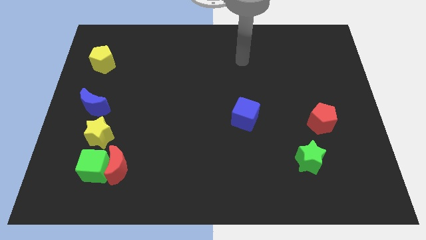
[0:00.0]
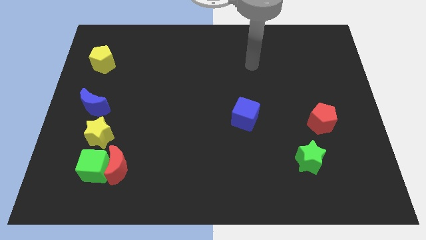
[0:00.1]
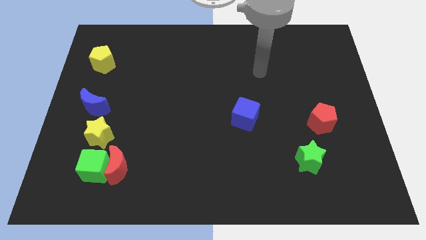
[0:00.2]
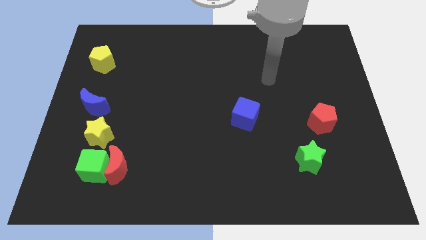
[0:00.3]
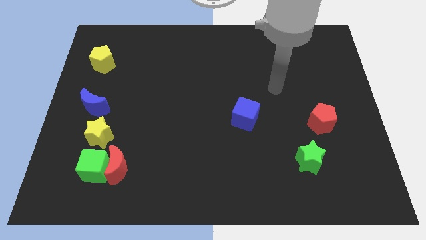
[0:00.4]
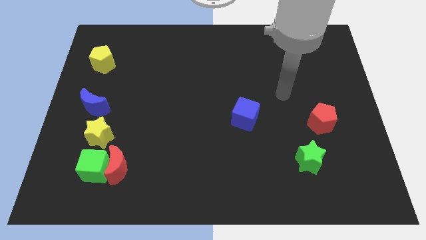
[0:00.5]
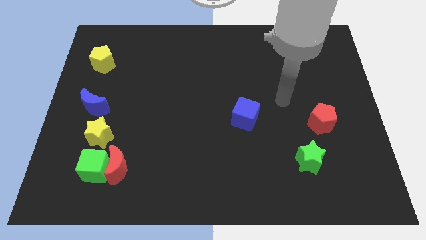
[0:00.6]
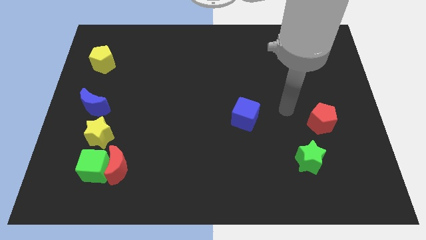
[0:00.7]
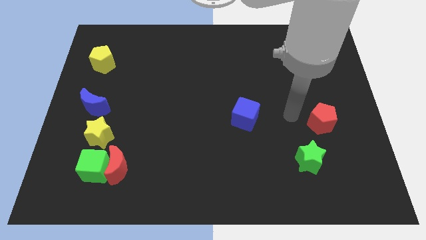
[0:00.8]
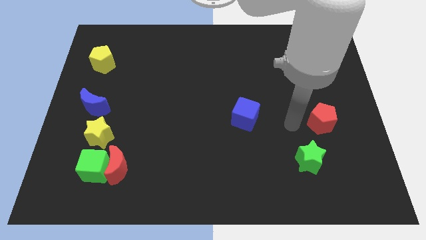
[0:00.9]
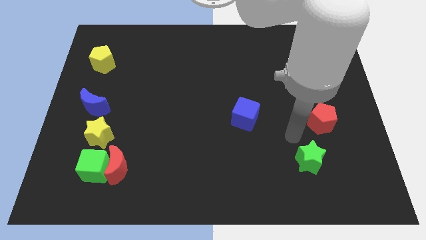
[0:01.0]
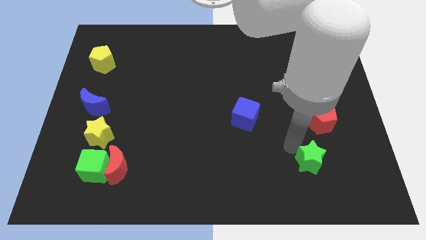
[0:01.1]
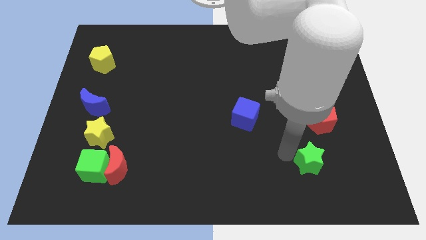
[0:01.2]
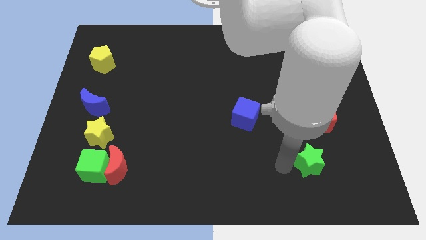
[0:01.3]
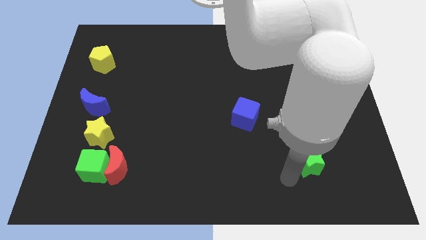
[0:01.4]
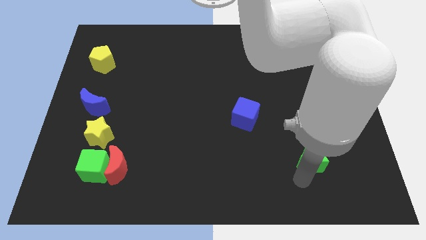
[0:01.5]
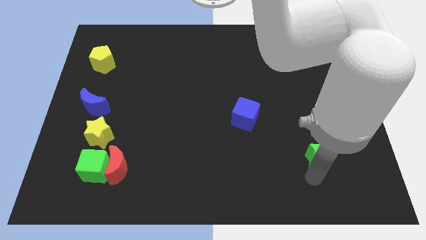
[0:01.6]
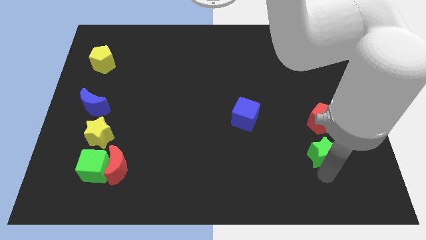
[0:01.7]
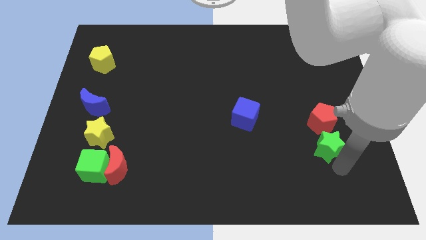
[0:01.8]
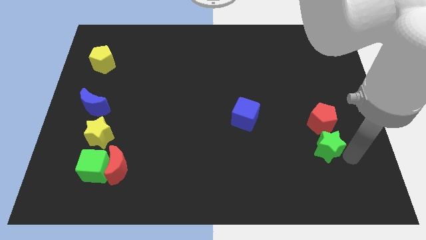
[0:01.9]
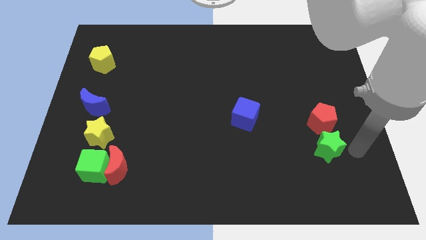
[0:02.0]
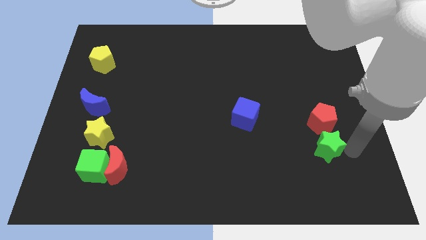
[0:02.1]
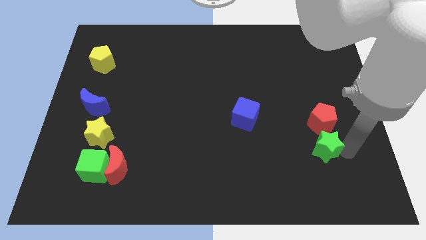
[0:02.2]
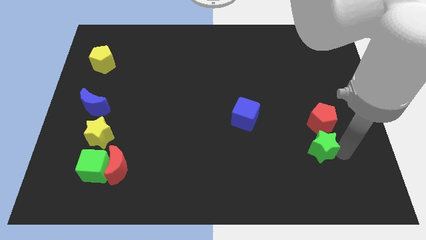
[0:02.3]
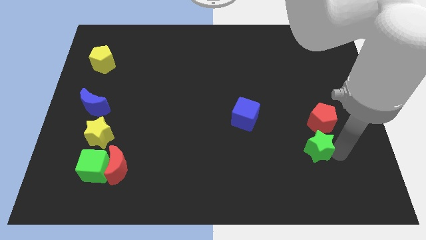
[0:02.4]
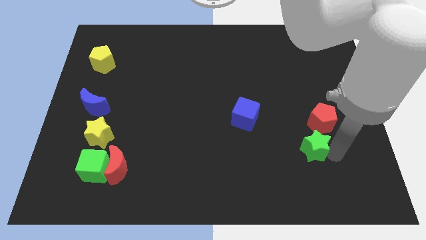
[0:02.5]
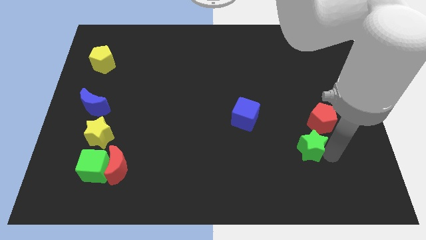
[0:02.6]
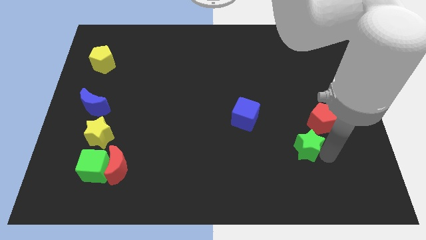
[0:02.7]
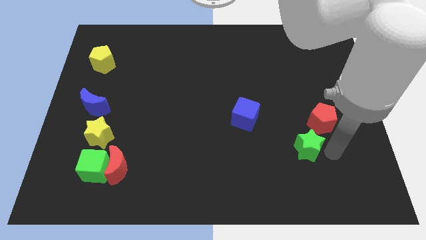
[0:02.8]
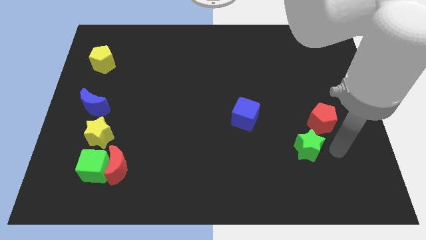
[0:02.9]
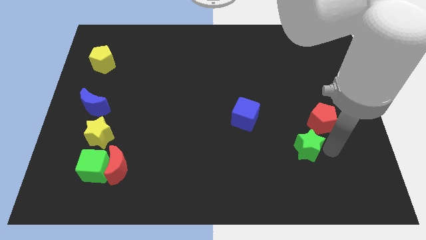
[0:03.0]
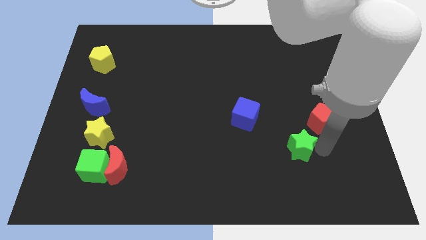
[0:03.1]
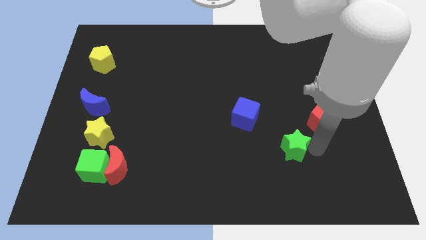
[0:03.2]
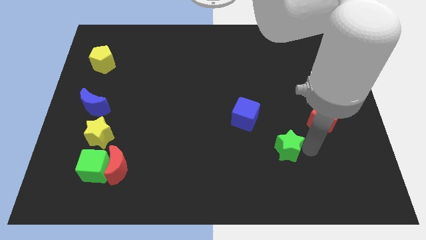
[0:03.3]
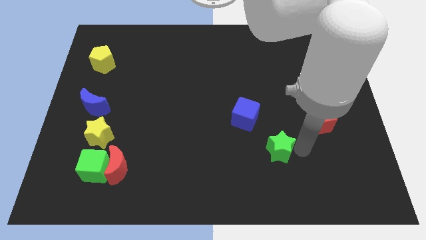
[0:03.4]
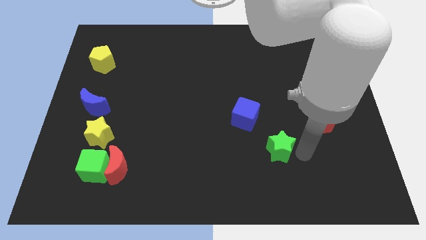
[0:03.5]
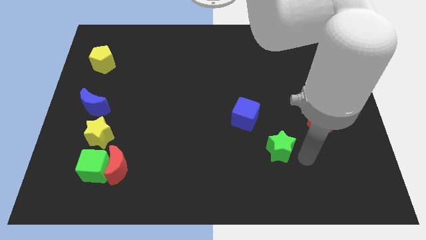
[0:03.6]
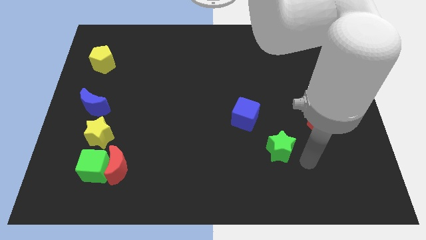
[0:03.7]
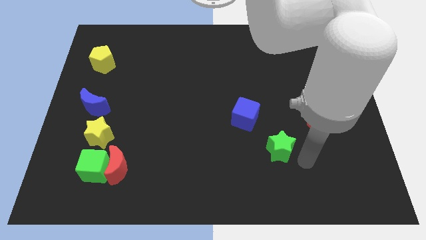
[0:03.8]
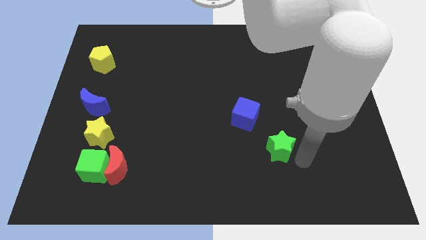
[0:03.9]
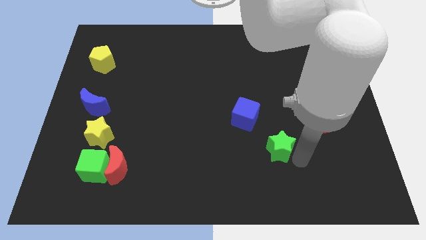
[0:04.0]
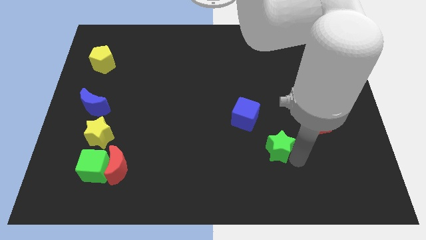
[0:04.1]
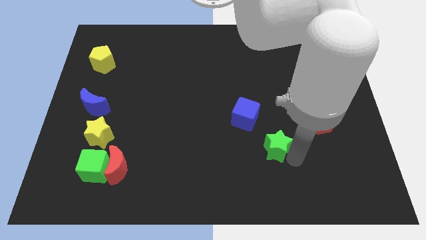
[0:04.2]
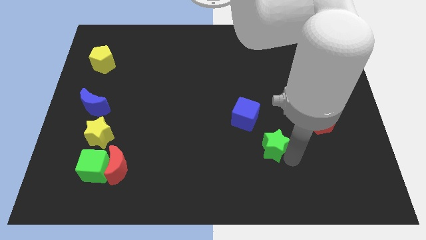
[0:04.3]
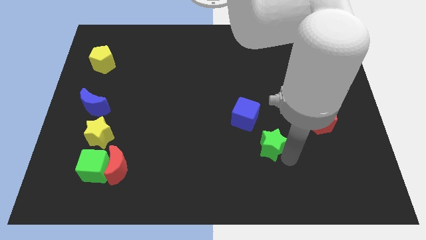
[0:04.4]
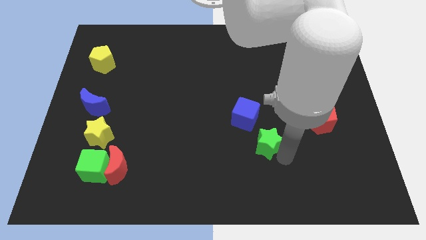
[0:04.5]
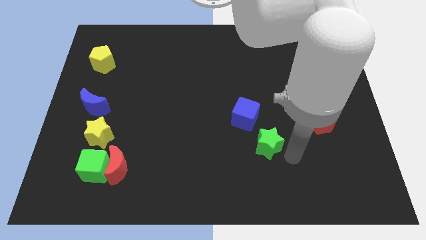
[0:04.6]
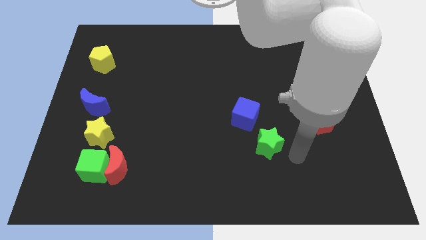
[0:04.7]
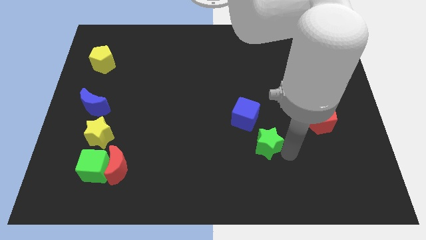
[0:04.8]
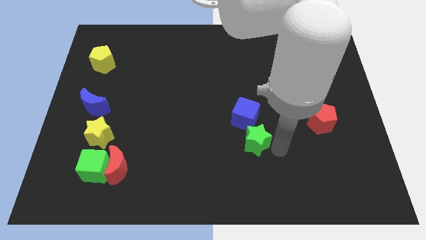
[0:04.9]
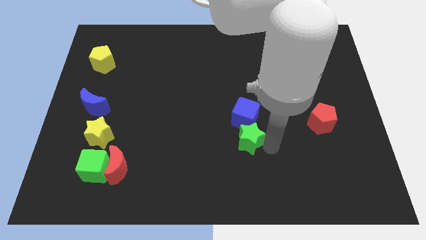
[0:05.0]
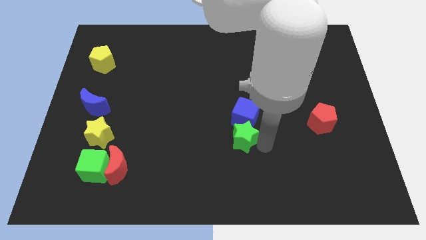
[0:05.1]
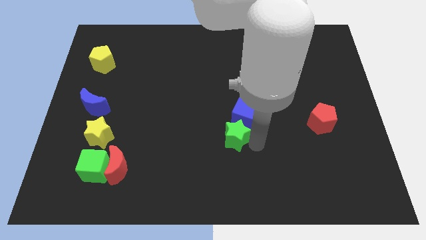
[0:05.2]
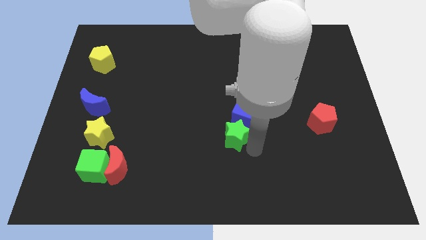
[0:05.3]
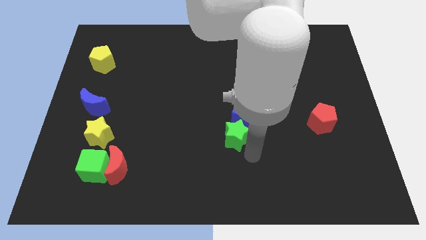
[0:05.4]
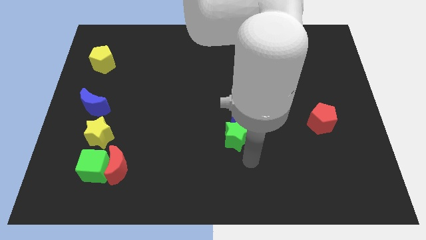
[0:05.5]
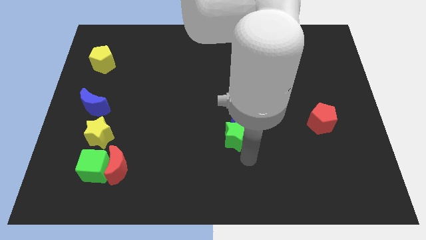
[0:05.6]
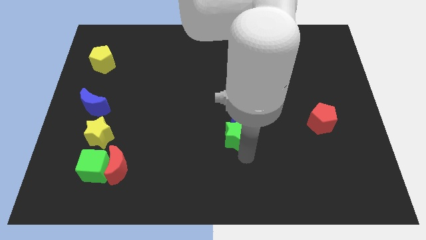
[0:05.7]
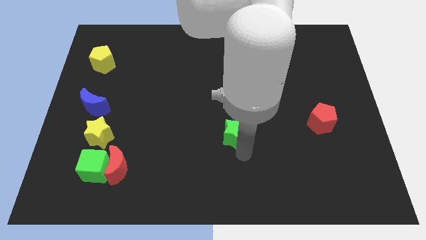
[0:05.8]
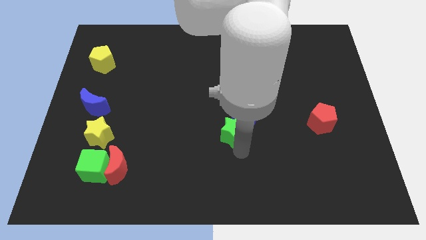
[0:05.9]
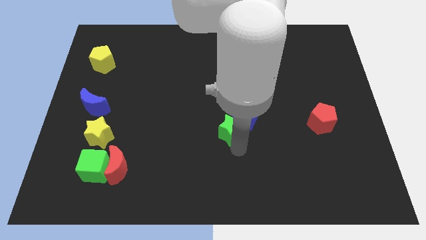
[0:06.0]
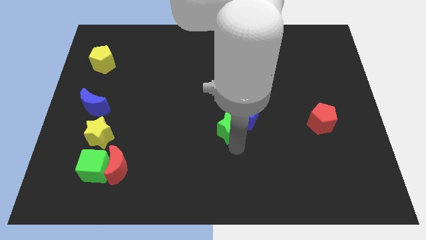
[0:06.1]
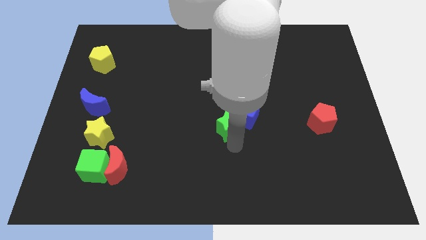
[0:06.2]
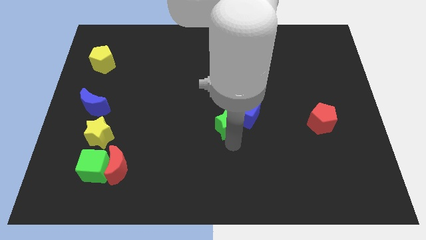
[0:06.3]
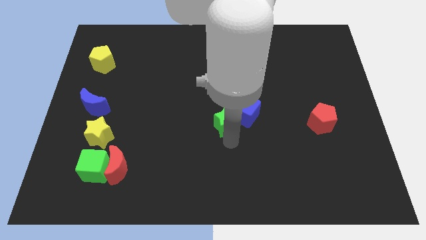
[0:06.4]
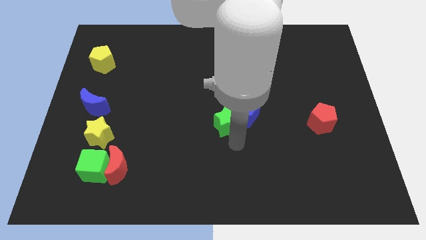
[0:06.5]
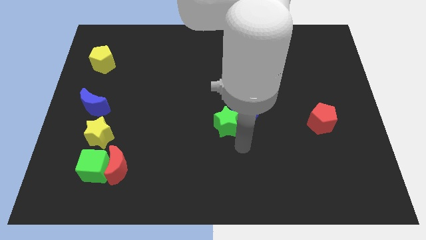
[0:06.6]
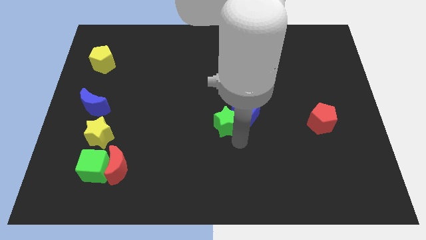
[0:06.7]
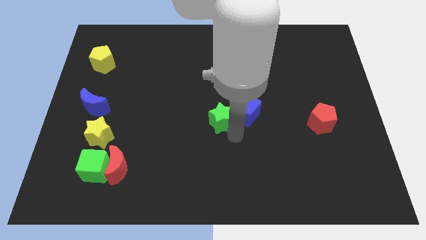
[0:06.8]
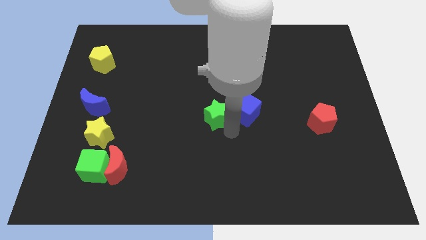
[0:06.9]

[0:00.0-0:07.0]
move the green star up and then left

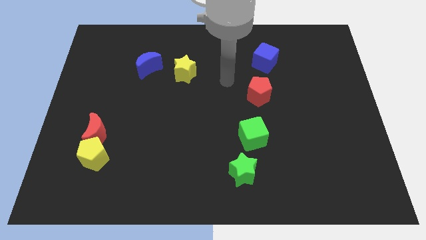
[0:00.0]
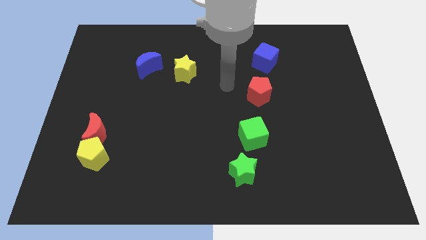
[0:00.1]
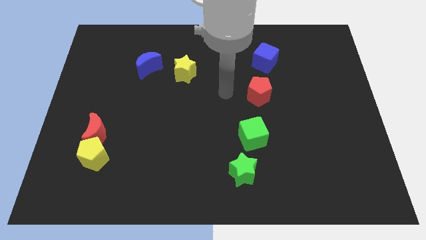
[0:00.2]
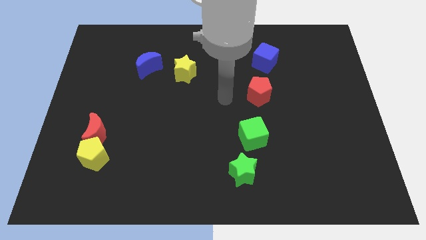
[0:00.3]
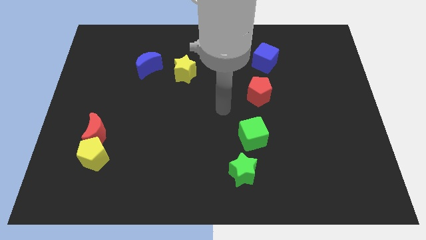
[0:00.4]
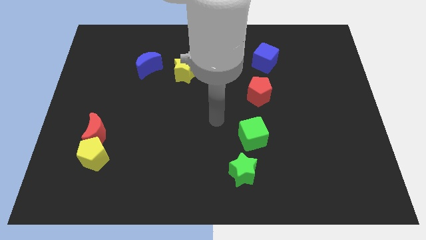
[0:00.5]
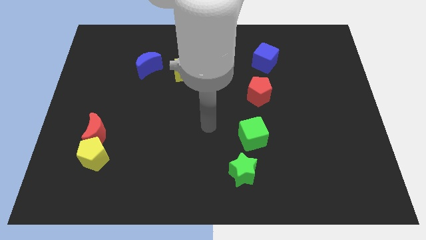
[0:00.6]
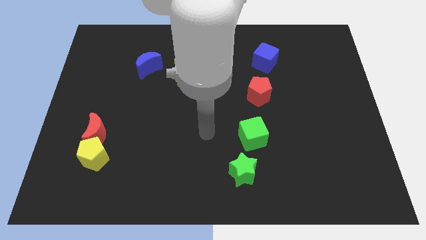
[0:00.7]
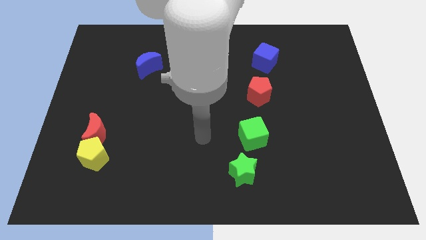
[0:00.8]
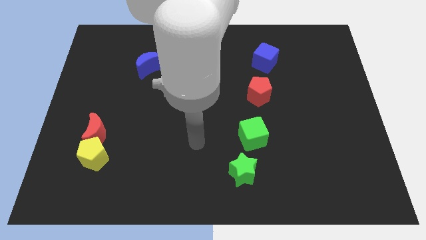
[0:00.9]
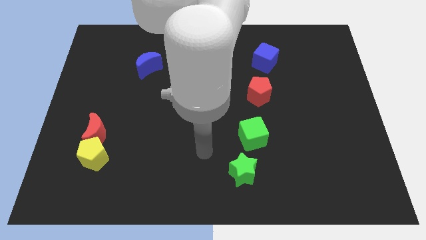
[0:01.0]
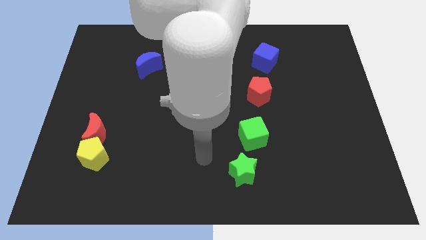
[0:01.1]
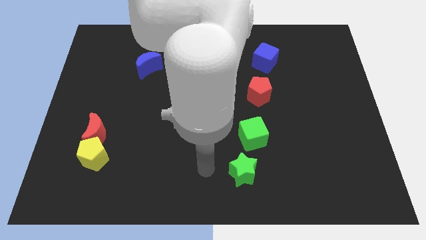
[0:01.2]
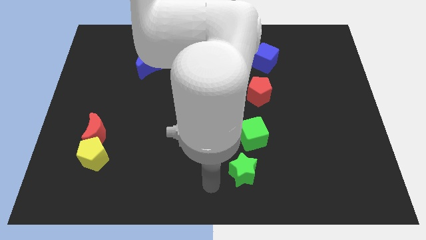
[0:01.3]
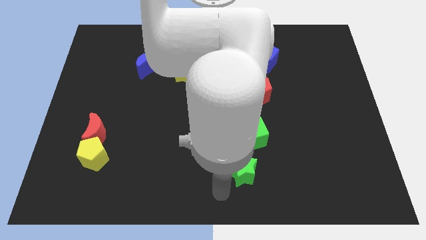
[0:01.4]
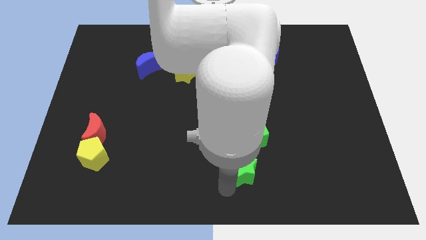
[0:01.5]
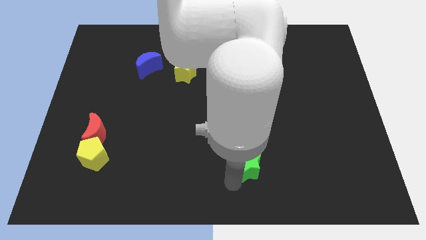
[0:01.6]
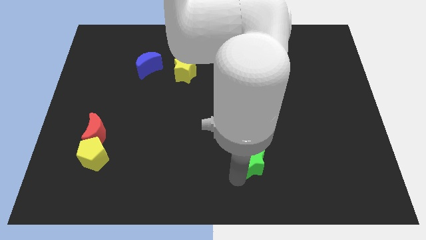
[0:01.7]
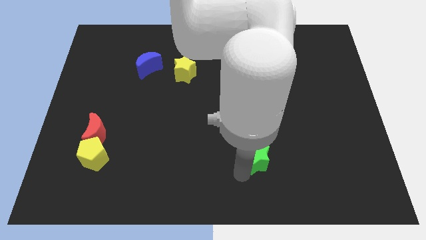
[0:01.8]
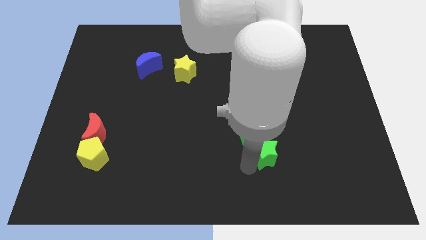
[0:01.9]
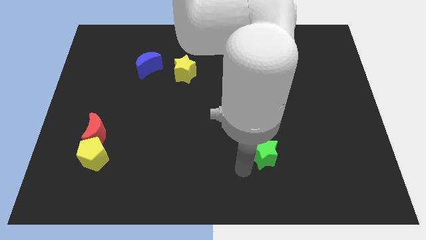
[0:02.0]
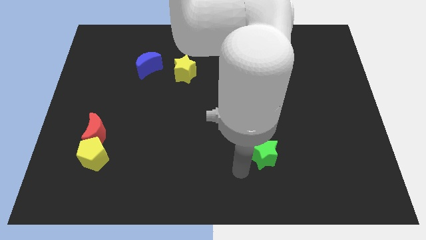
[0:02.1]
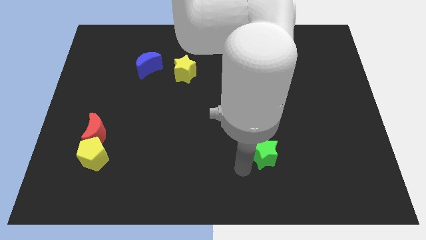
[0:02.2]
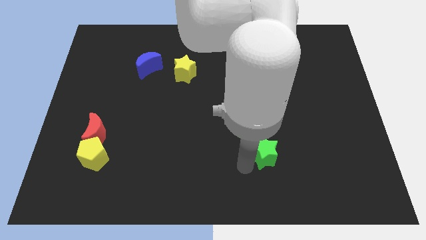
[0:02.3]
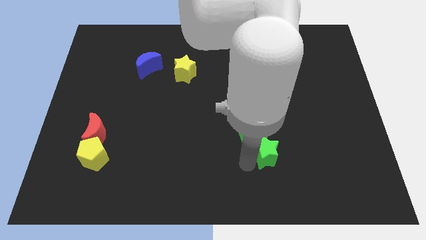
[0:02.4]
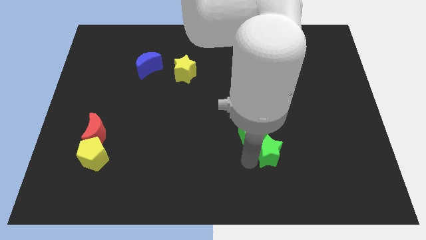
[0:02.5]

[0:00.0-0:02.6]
move the green star up and right diagonally somewhat
